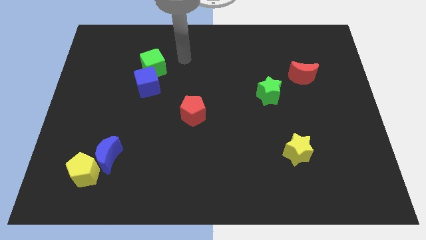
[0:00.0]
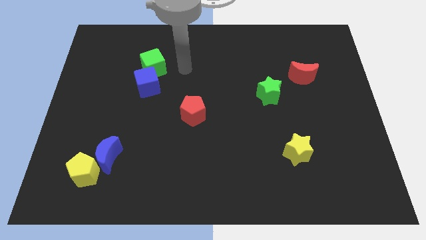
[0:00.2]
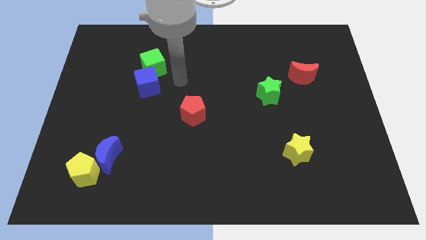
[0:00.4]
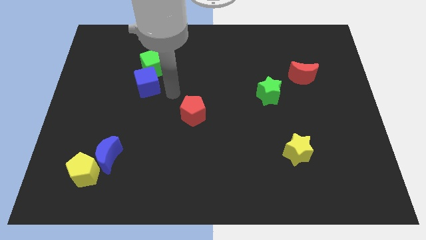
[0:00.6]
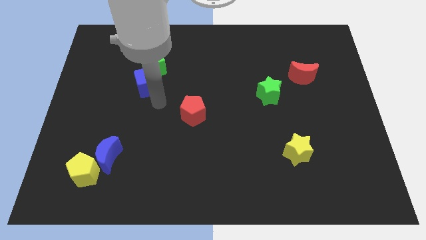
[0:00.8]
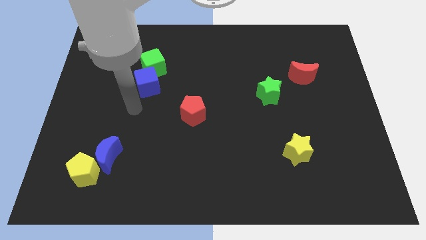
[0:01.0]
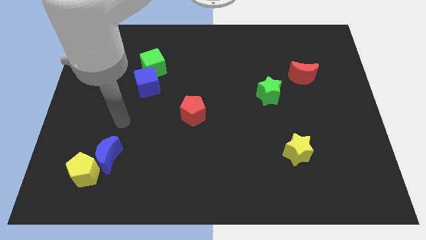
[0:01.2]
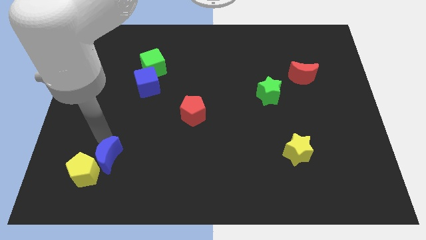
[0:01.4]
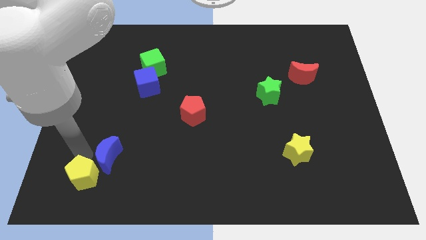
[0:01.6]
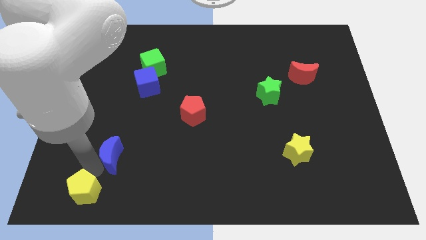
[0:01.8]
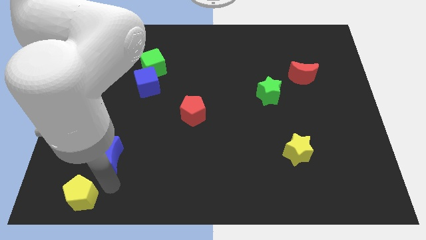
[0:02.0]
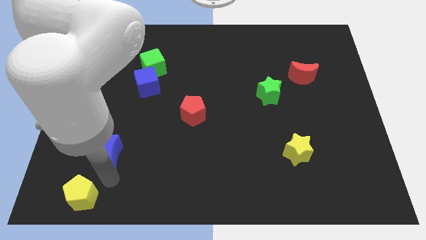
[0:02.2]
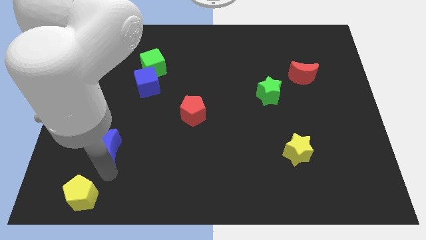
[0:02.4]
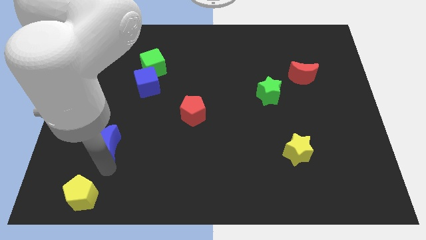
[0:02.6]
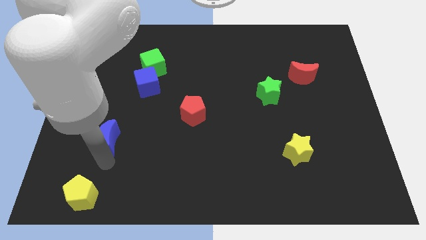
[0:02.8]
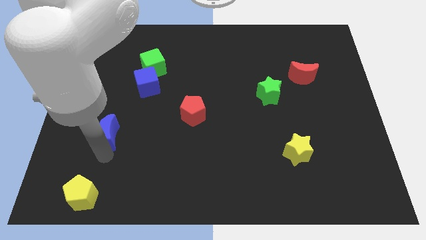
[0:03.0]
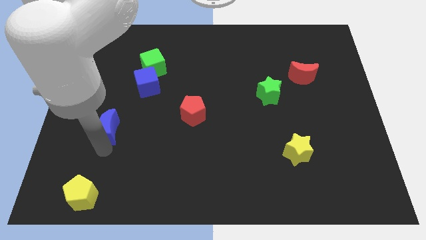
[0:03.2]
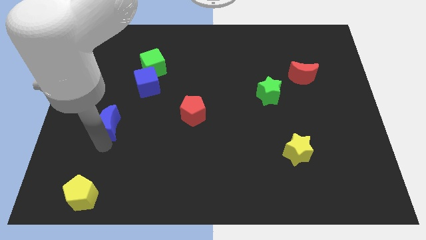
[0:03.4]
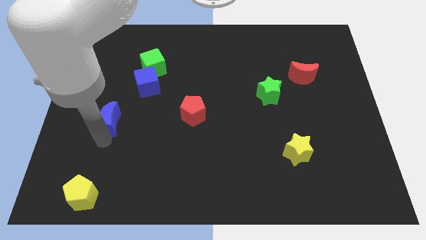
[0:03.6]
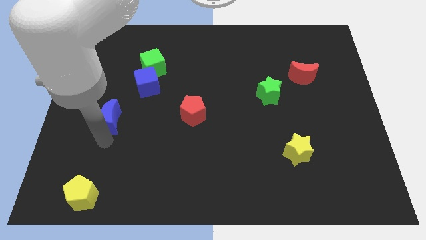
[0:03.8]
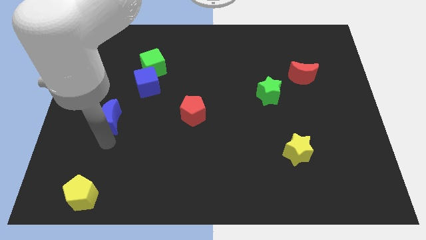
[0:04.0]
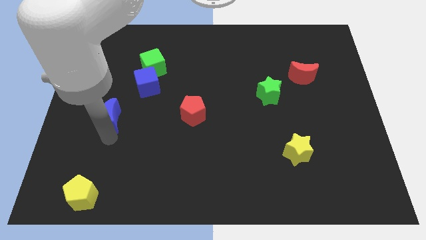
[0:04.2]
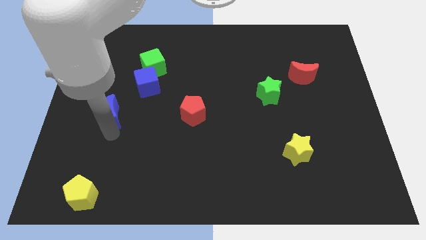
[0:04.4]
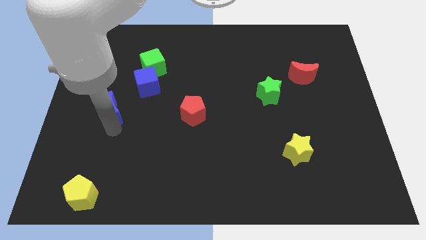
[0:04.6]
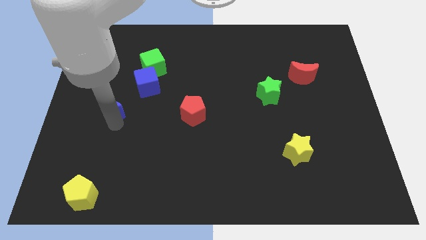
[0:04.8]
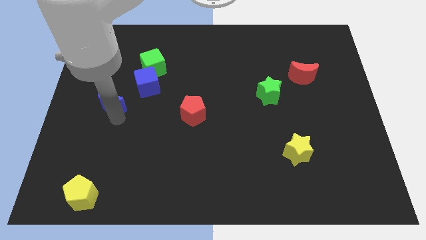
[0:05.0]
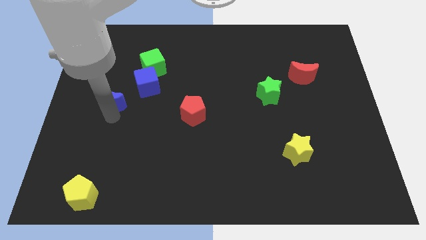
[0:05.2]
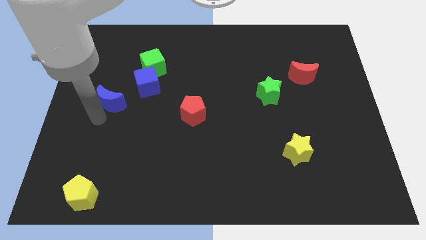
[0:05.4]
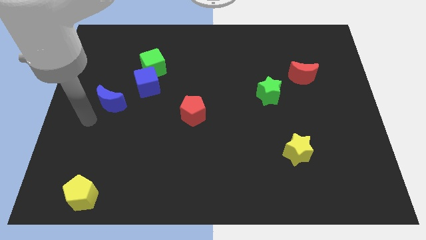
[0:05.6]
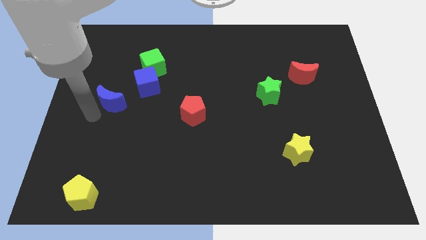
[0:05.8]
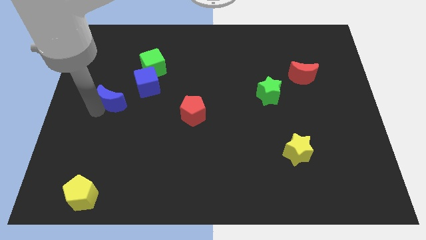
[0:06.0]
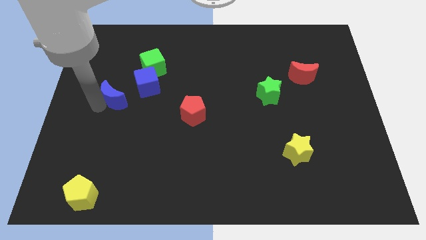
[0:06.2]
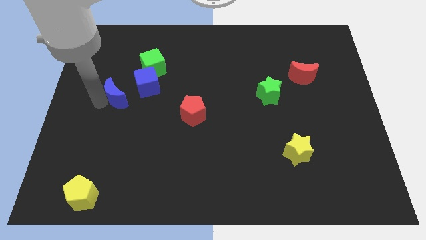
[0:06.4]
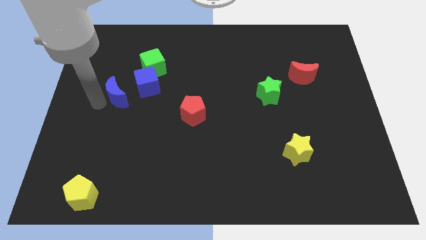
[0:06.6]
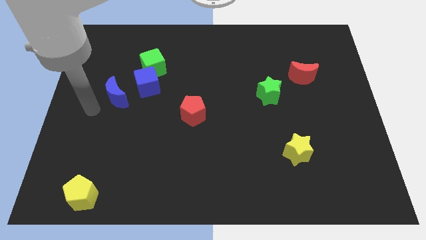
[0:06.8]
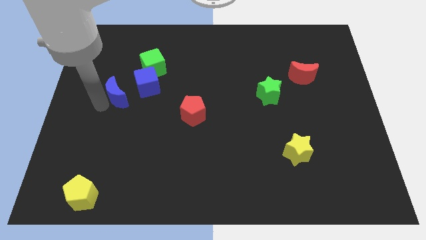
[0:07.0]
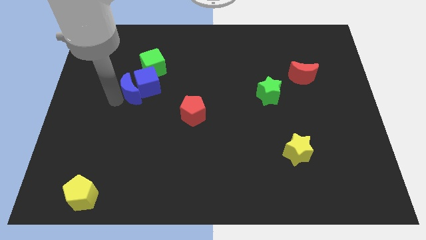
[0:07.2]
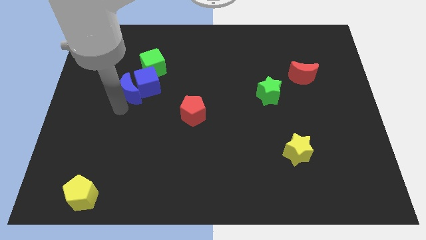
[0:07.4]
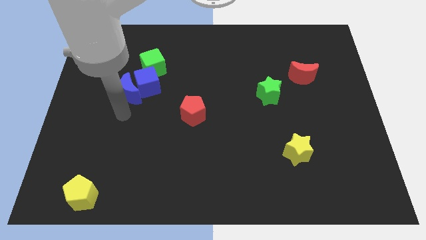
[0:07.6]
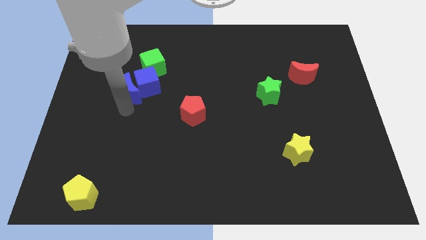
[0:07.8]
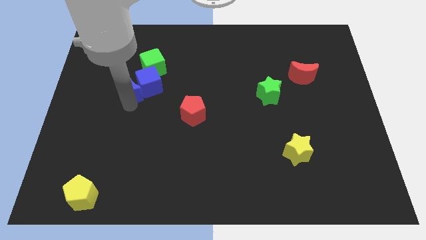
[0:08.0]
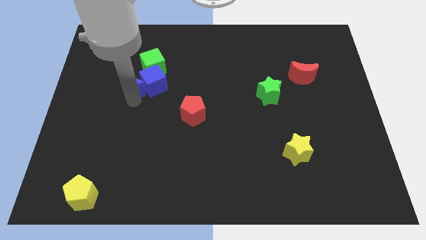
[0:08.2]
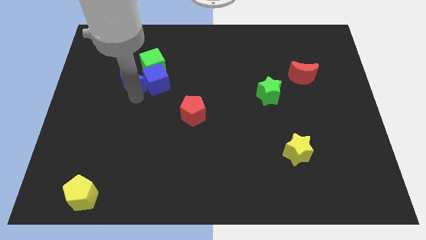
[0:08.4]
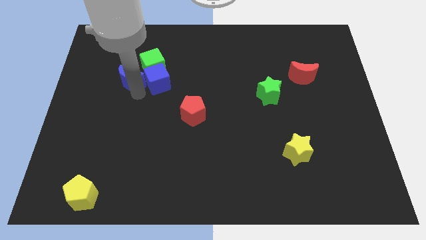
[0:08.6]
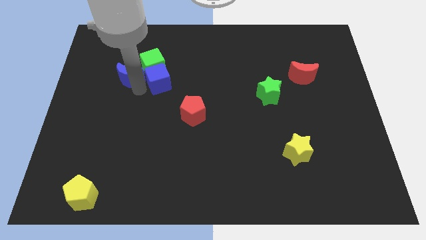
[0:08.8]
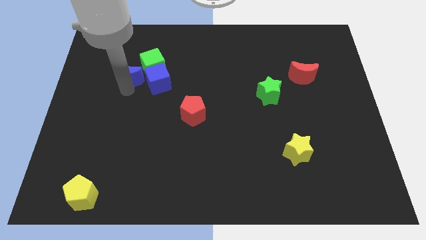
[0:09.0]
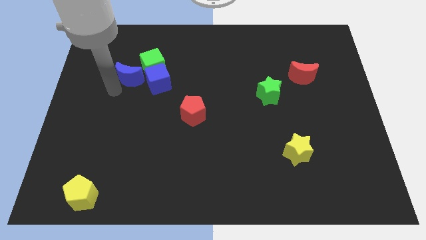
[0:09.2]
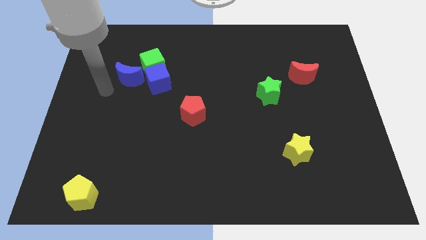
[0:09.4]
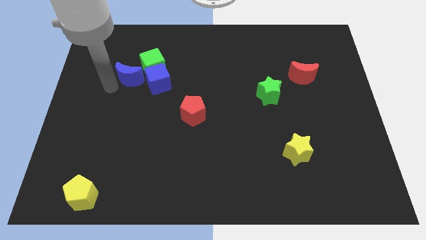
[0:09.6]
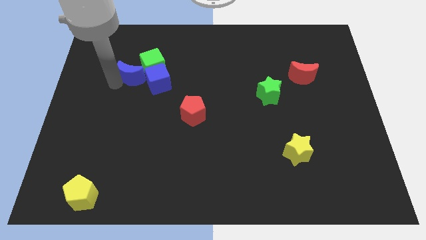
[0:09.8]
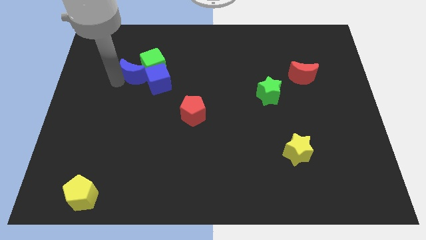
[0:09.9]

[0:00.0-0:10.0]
push the blue moon close to the green cube

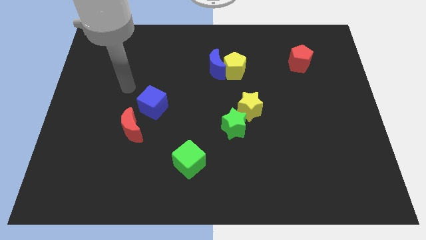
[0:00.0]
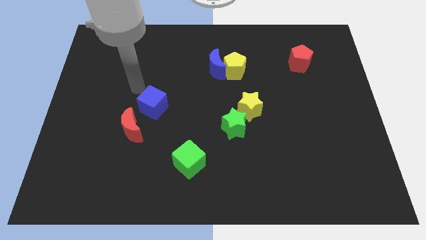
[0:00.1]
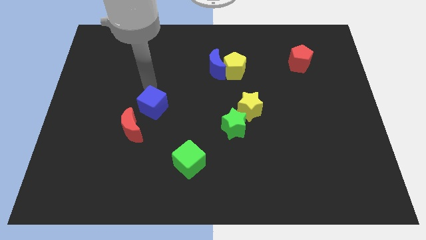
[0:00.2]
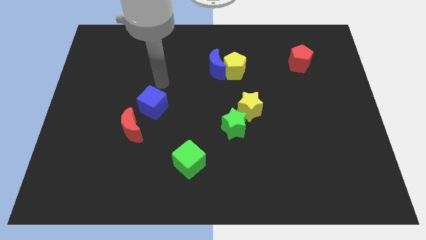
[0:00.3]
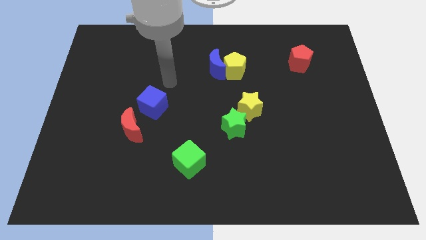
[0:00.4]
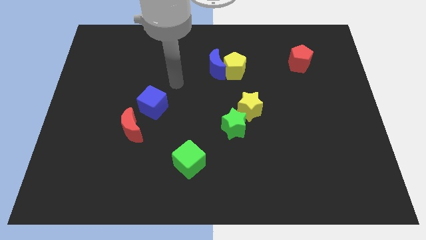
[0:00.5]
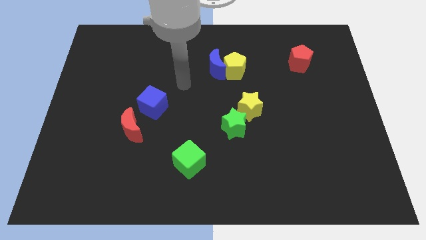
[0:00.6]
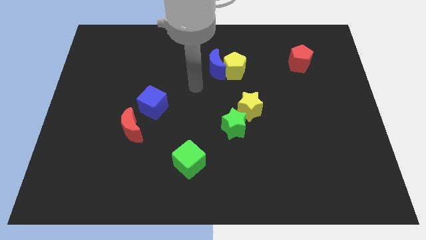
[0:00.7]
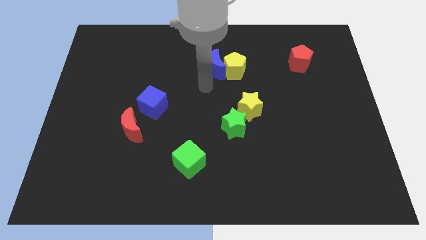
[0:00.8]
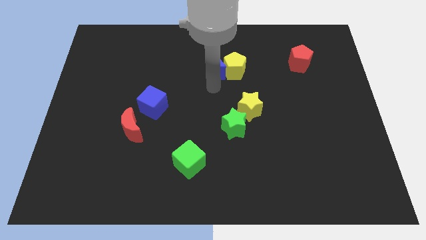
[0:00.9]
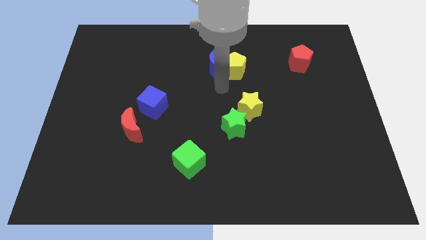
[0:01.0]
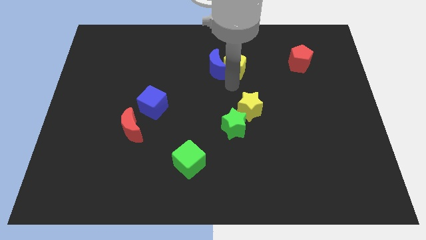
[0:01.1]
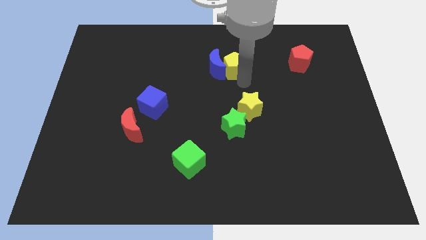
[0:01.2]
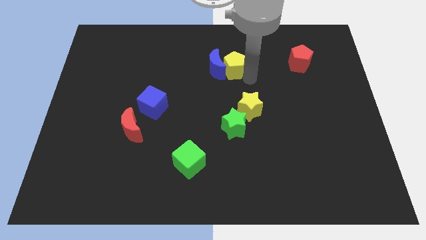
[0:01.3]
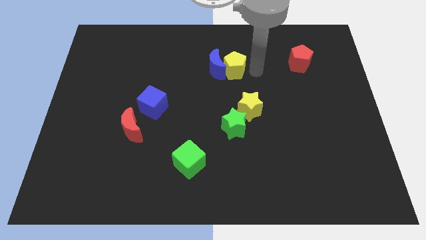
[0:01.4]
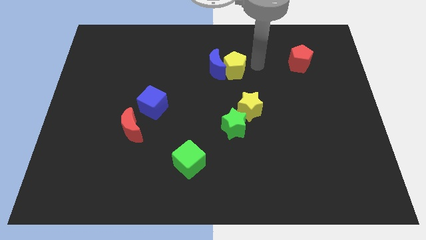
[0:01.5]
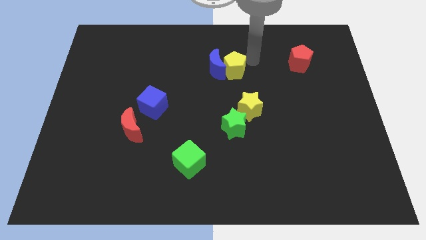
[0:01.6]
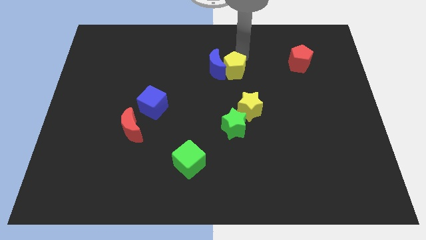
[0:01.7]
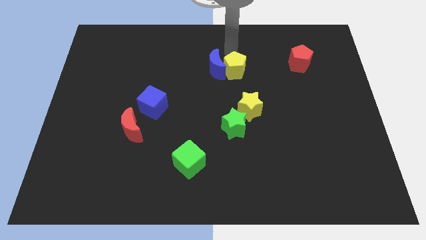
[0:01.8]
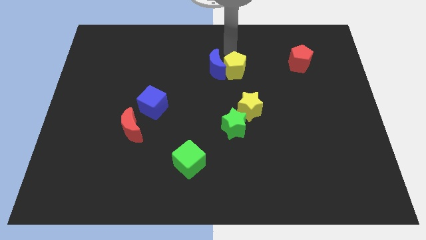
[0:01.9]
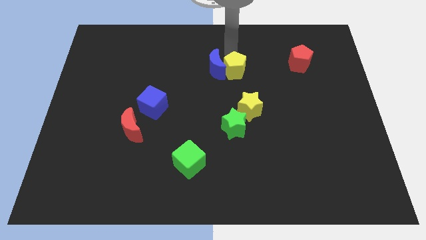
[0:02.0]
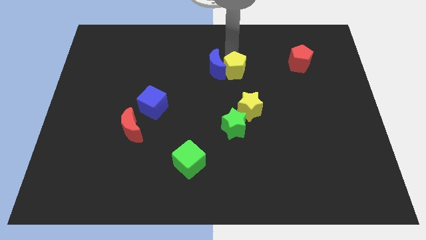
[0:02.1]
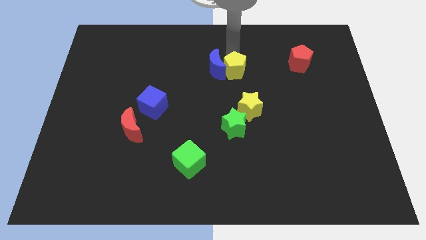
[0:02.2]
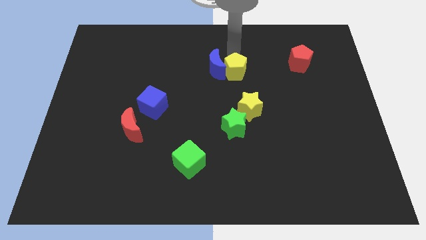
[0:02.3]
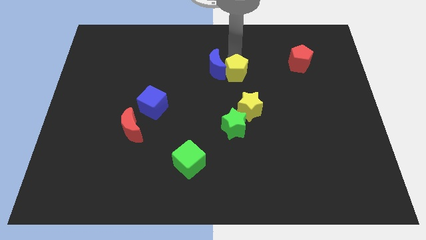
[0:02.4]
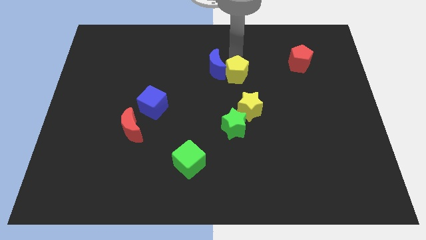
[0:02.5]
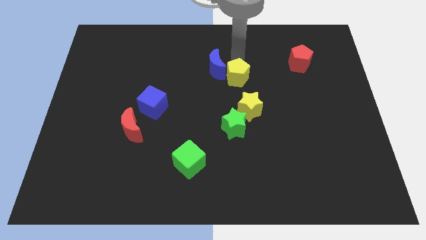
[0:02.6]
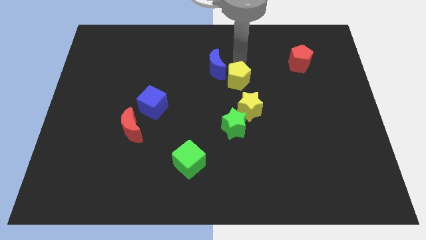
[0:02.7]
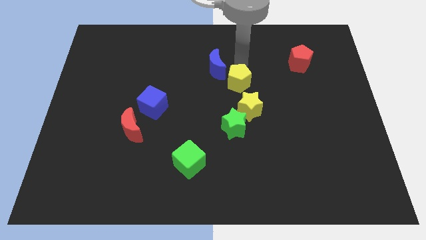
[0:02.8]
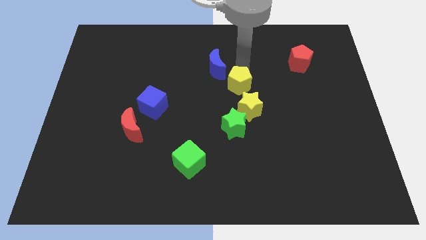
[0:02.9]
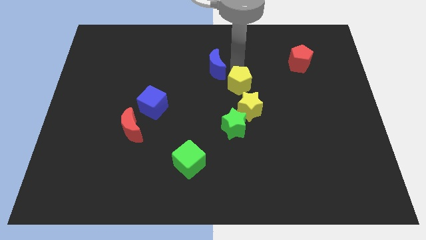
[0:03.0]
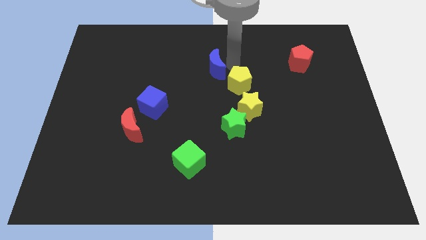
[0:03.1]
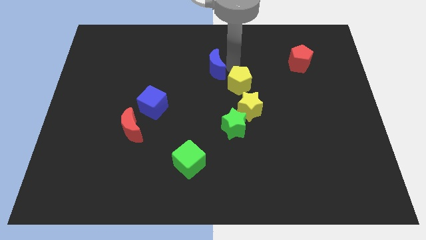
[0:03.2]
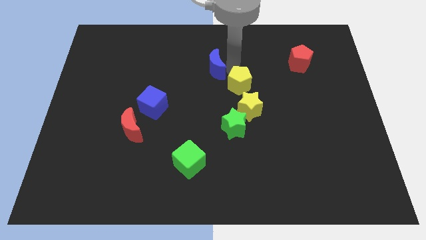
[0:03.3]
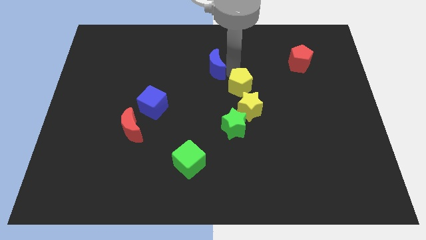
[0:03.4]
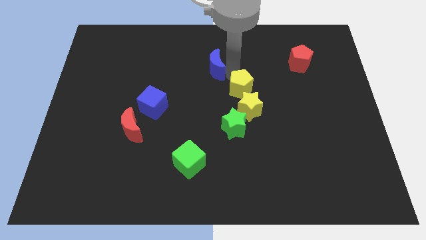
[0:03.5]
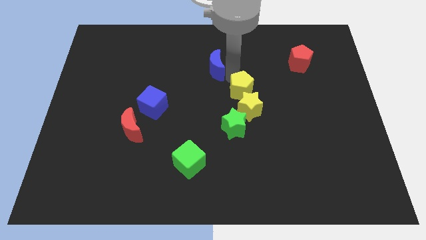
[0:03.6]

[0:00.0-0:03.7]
move the yellow pentagon close to the yellow star
